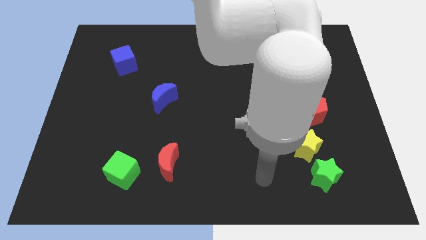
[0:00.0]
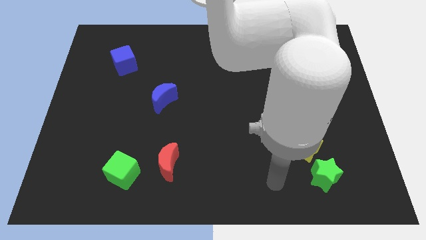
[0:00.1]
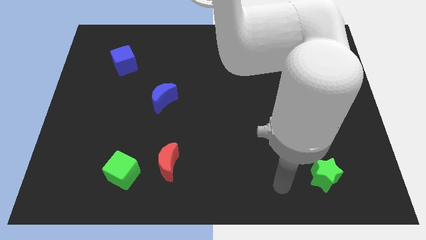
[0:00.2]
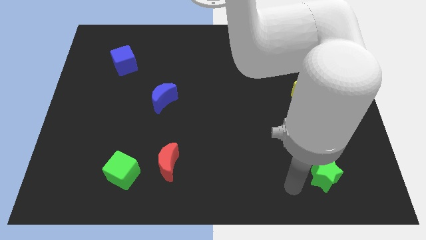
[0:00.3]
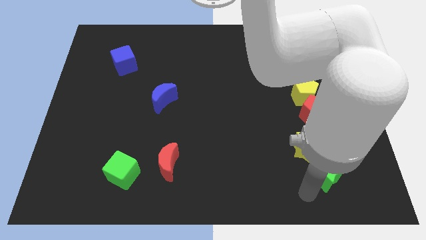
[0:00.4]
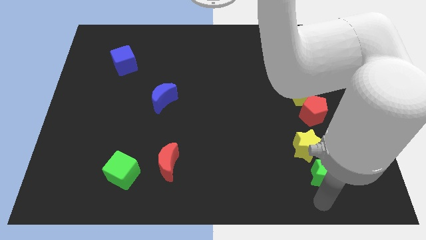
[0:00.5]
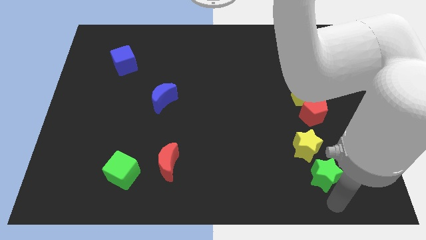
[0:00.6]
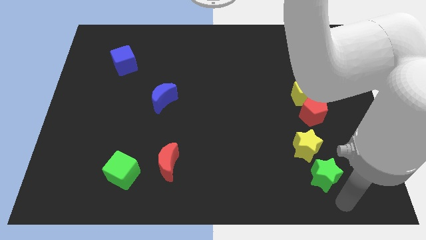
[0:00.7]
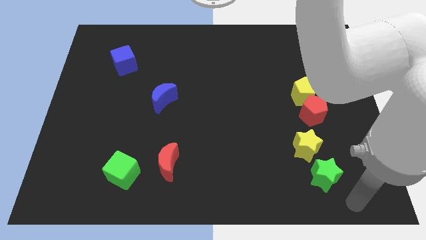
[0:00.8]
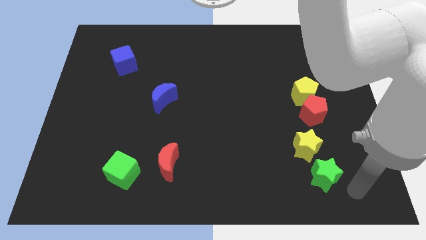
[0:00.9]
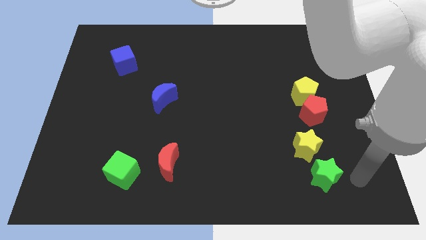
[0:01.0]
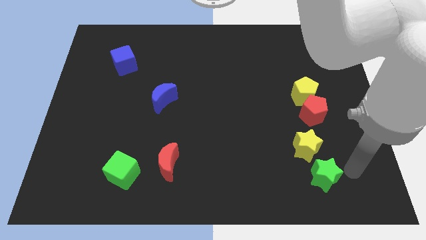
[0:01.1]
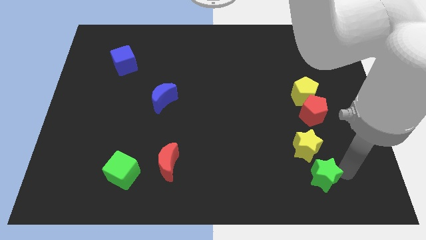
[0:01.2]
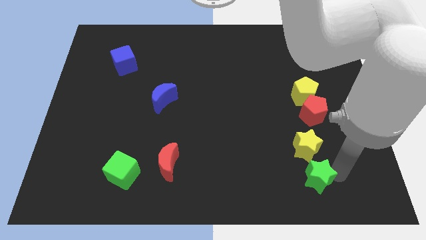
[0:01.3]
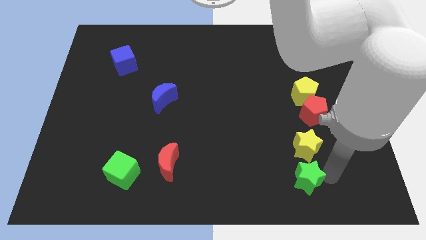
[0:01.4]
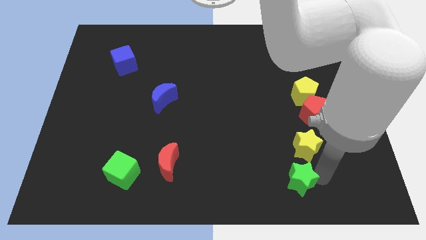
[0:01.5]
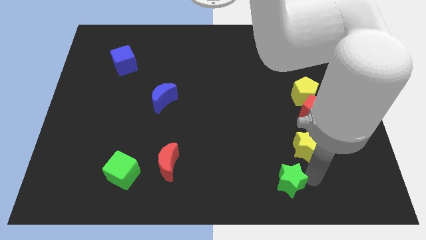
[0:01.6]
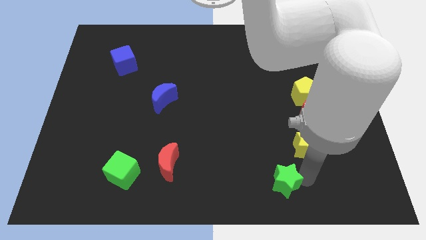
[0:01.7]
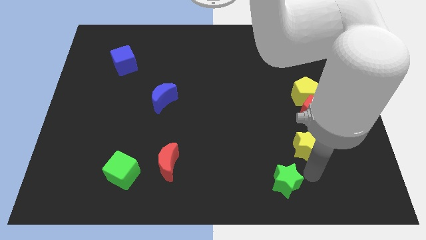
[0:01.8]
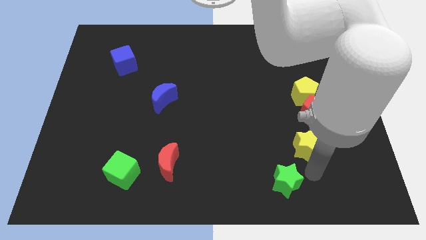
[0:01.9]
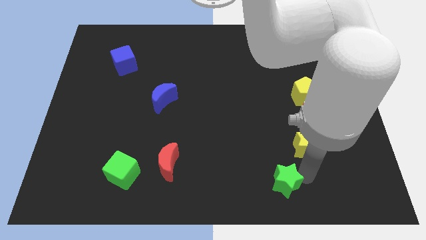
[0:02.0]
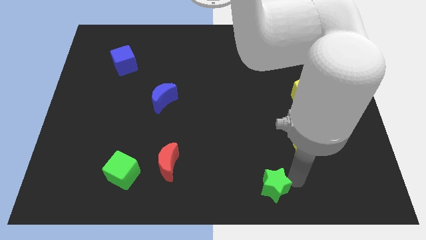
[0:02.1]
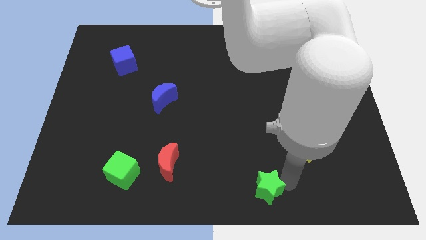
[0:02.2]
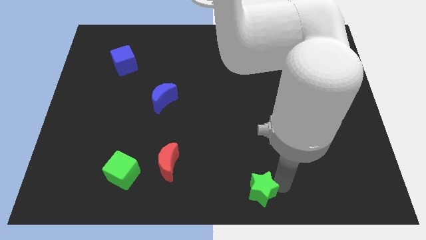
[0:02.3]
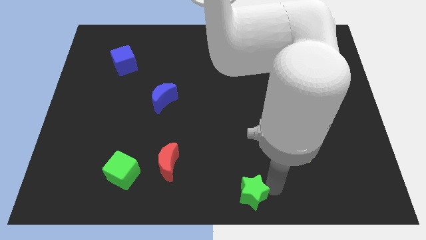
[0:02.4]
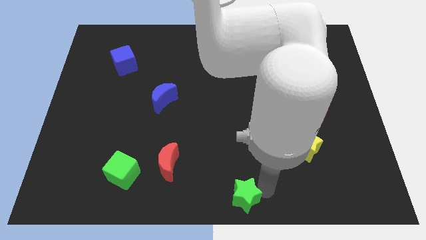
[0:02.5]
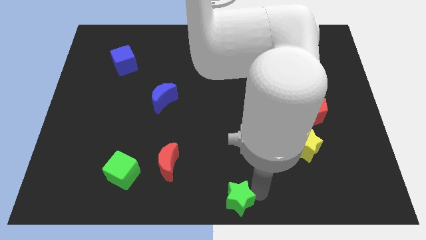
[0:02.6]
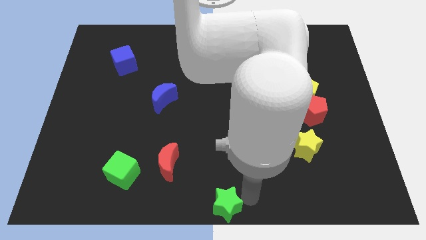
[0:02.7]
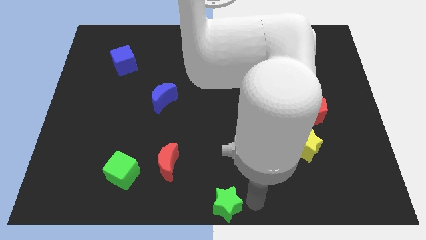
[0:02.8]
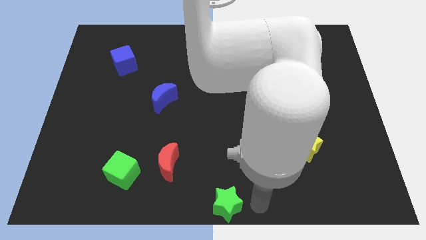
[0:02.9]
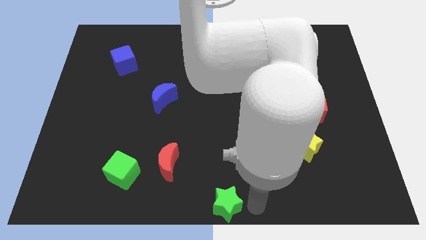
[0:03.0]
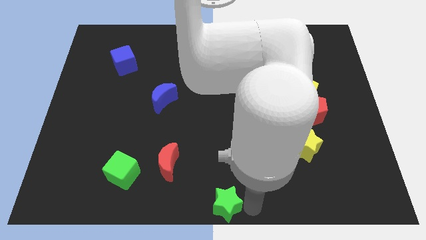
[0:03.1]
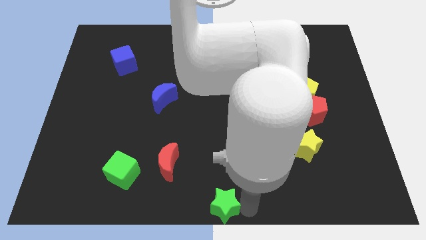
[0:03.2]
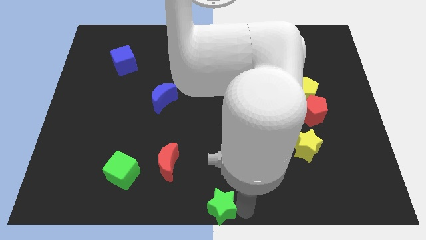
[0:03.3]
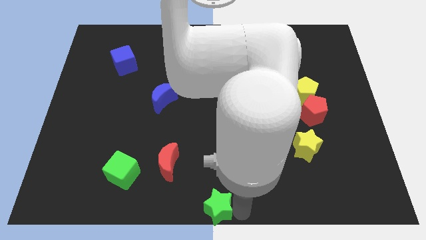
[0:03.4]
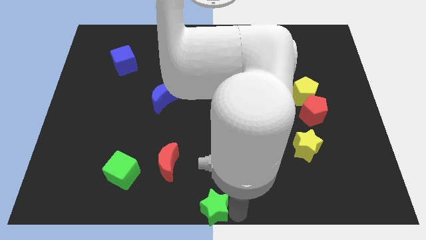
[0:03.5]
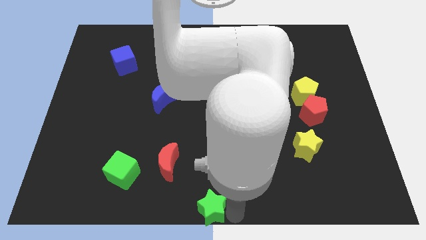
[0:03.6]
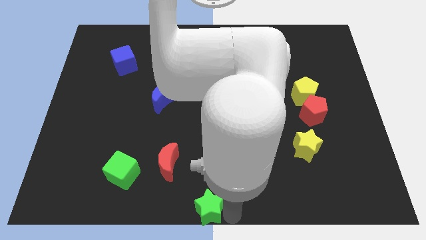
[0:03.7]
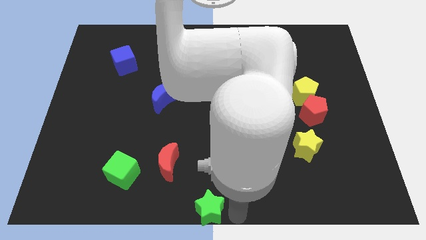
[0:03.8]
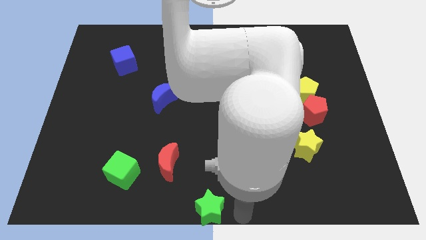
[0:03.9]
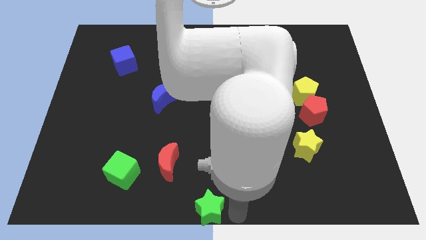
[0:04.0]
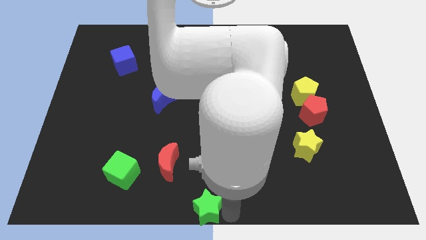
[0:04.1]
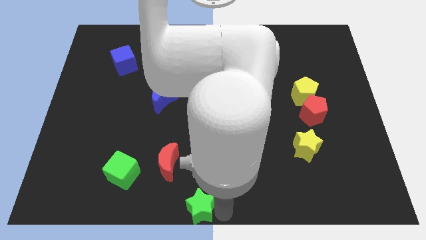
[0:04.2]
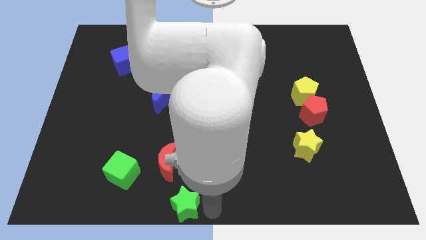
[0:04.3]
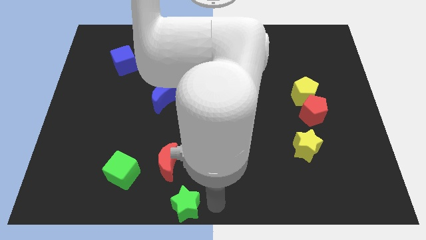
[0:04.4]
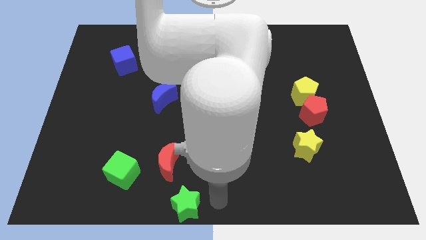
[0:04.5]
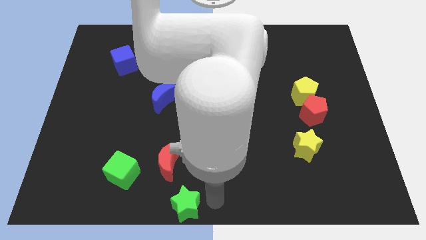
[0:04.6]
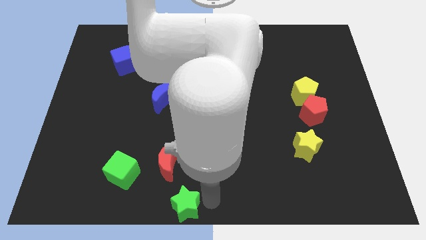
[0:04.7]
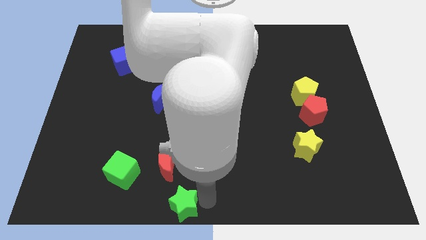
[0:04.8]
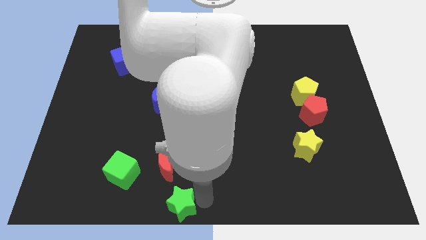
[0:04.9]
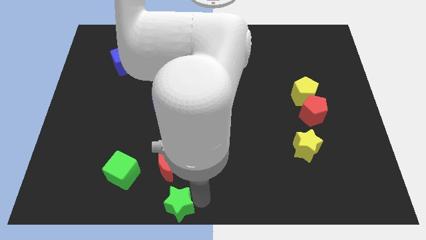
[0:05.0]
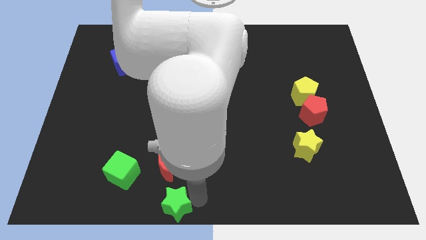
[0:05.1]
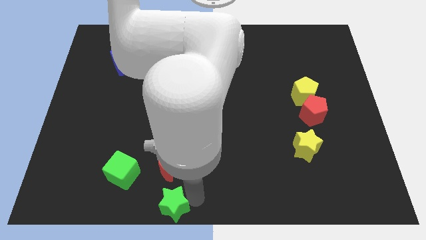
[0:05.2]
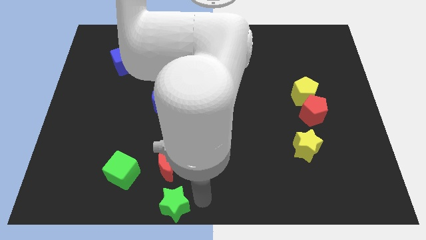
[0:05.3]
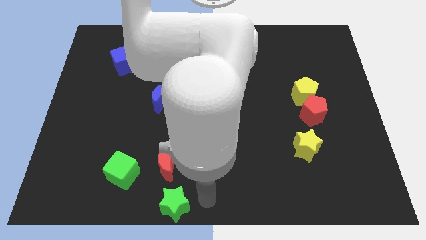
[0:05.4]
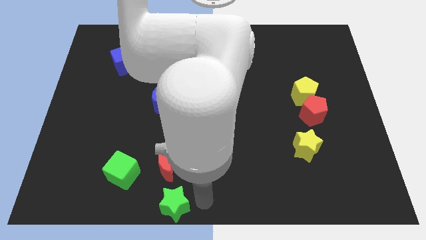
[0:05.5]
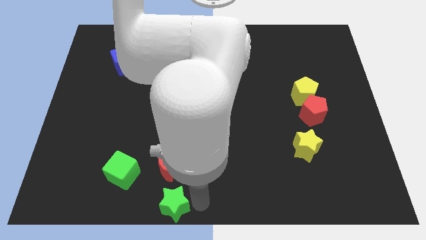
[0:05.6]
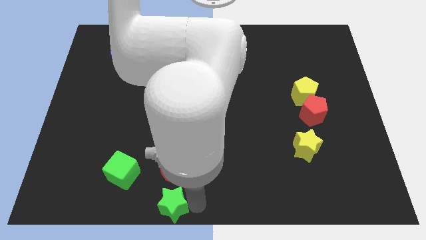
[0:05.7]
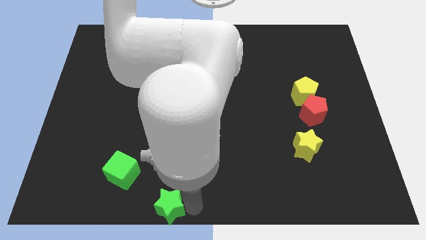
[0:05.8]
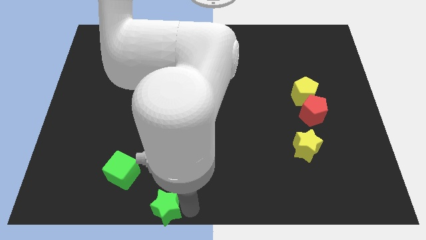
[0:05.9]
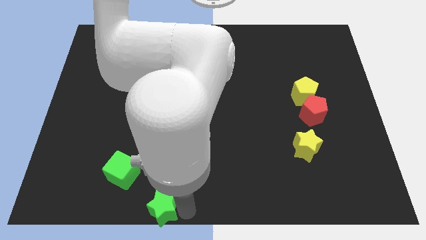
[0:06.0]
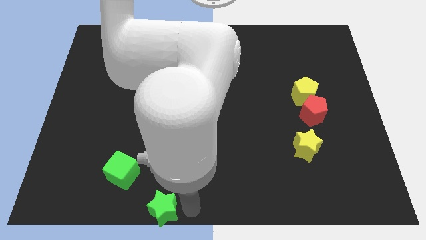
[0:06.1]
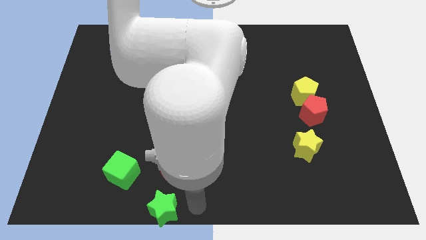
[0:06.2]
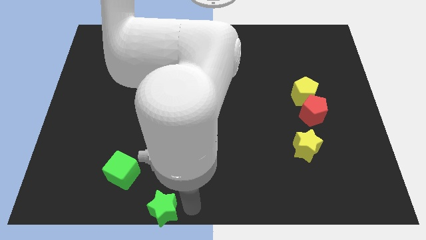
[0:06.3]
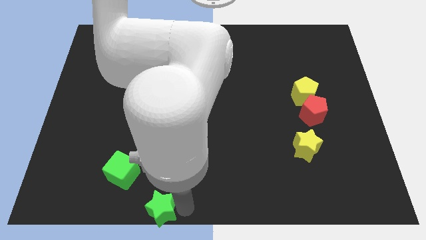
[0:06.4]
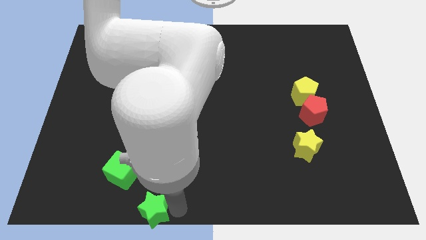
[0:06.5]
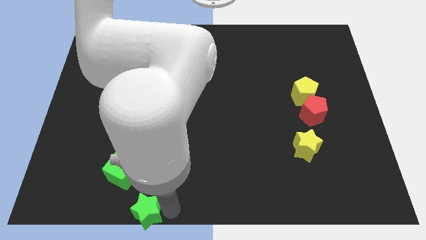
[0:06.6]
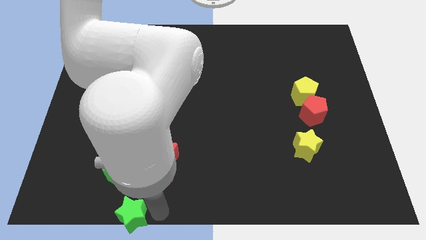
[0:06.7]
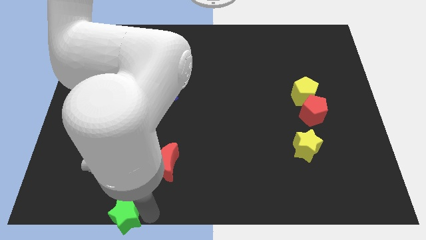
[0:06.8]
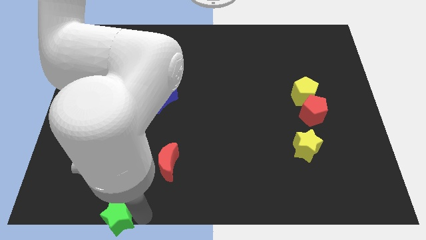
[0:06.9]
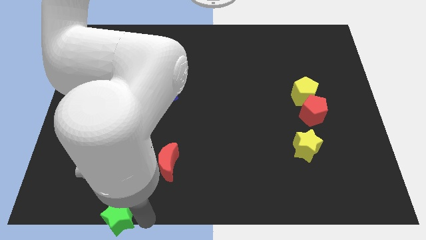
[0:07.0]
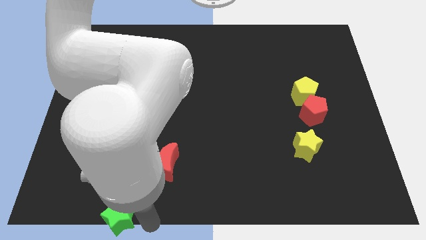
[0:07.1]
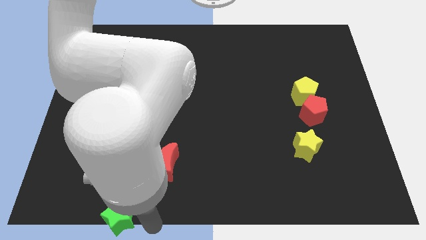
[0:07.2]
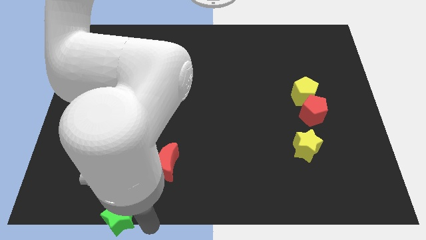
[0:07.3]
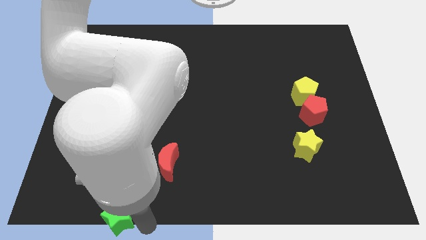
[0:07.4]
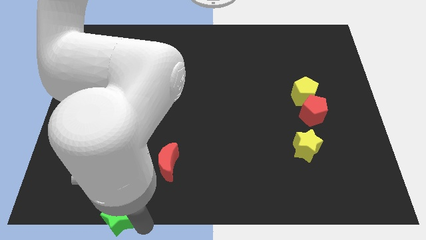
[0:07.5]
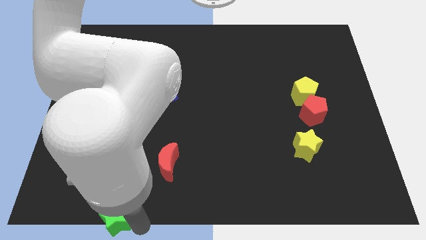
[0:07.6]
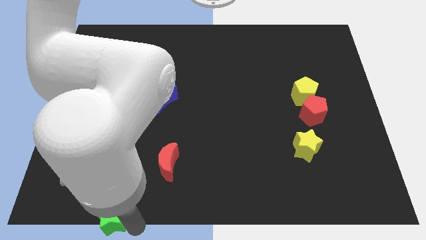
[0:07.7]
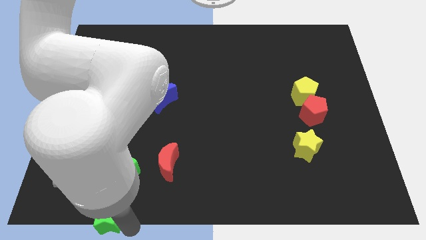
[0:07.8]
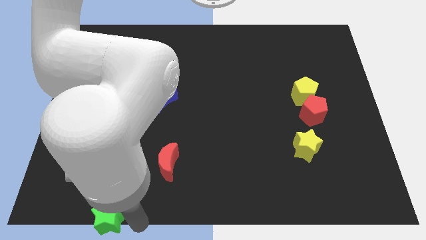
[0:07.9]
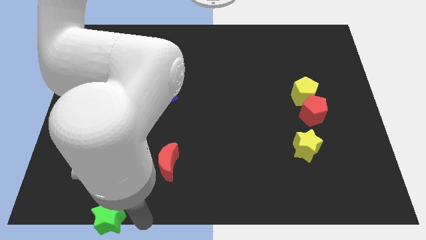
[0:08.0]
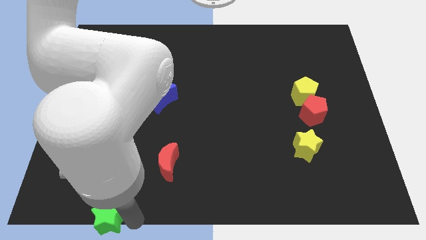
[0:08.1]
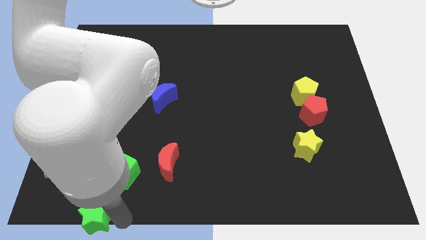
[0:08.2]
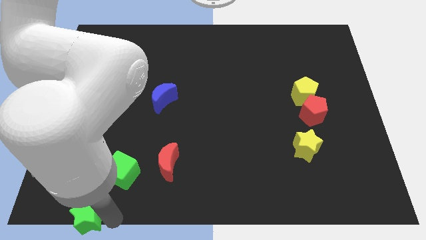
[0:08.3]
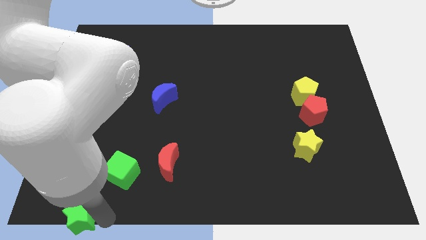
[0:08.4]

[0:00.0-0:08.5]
put the green star to the lower left corner
